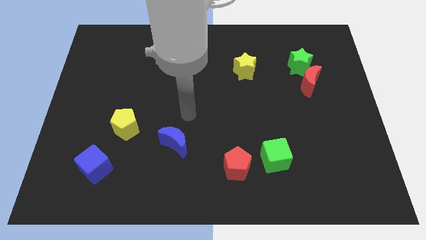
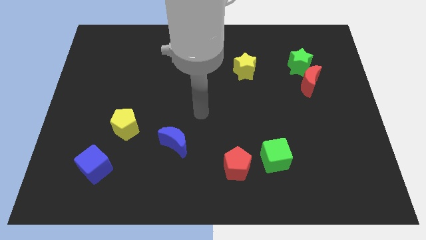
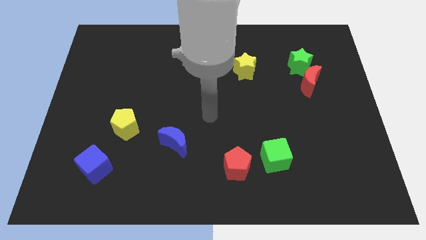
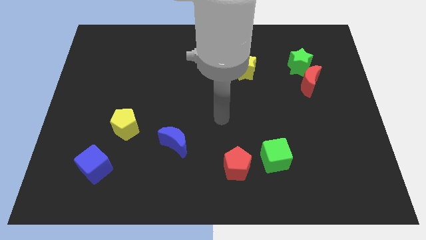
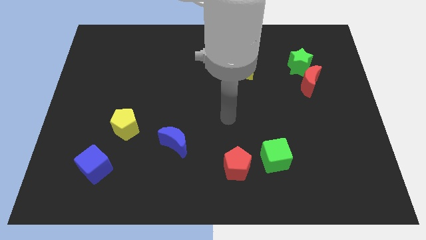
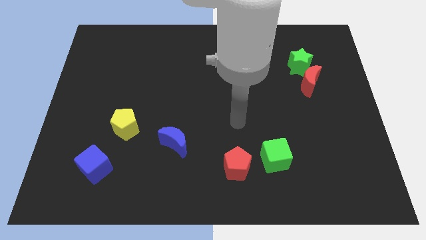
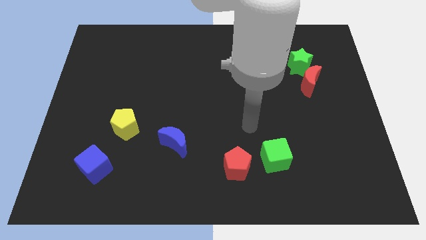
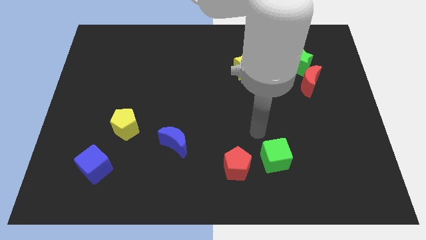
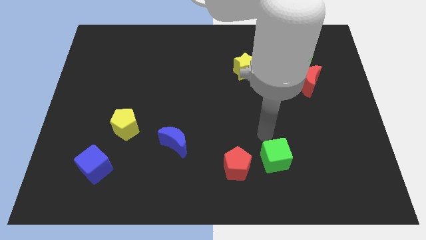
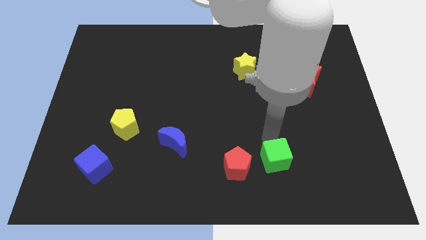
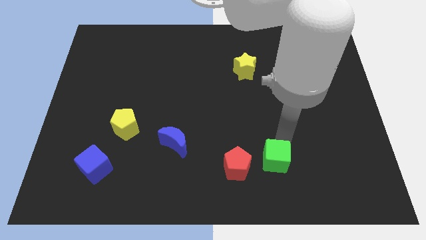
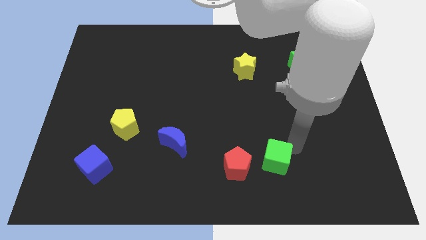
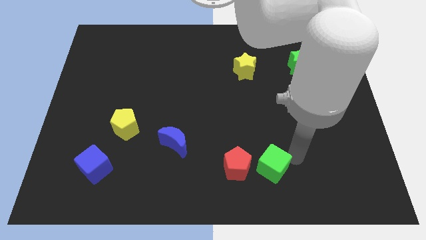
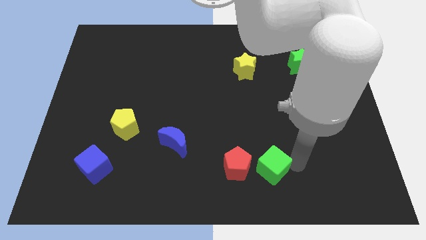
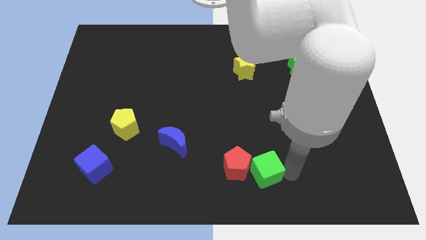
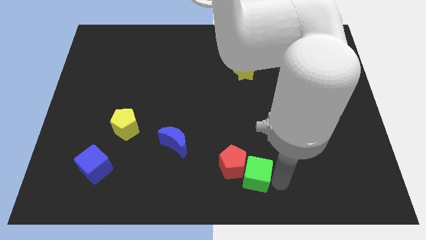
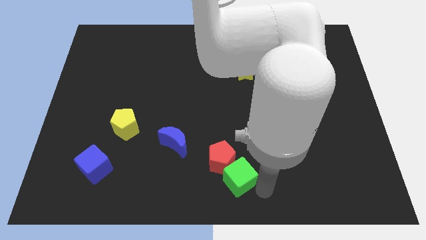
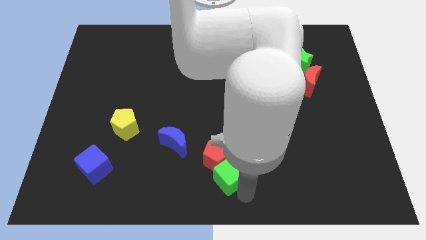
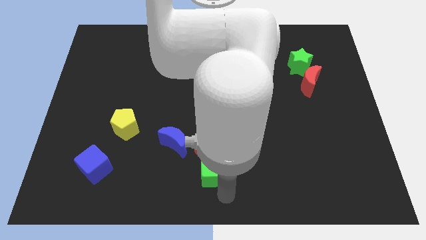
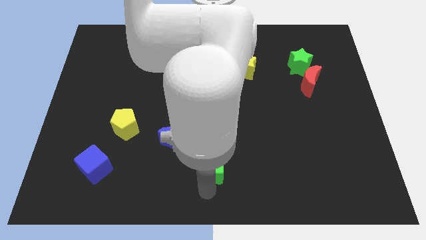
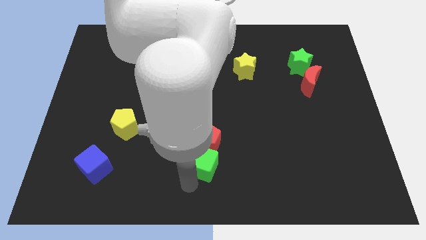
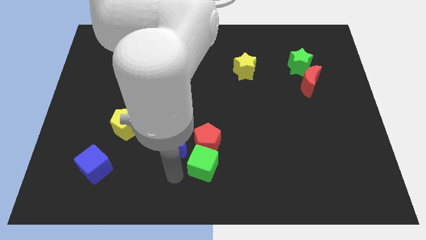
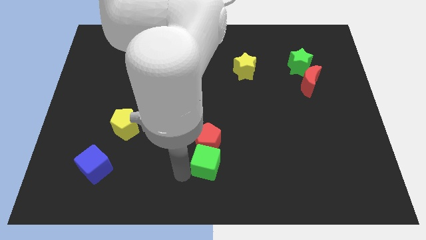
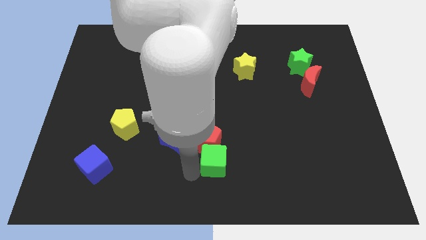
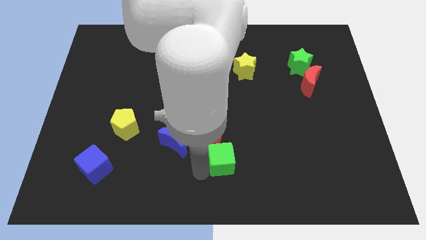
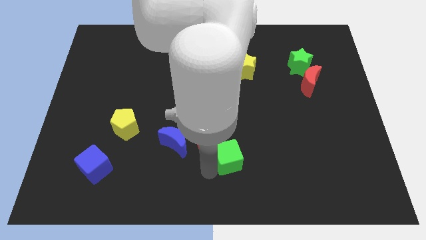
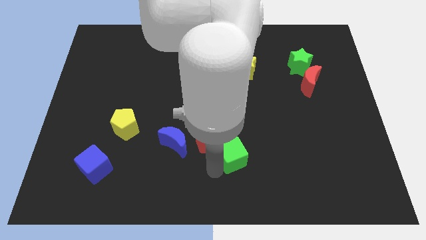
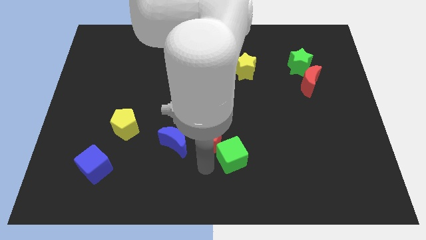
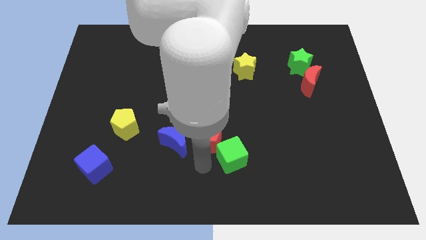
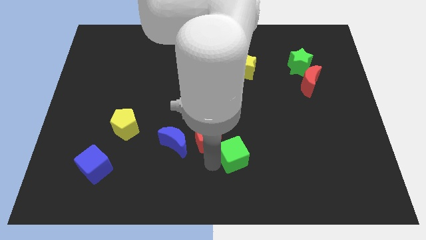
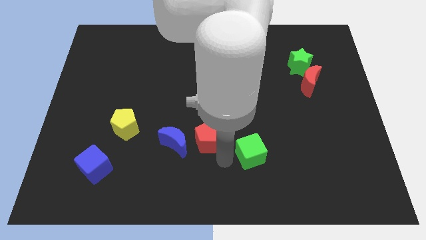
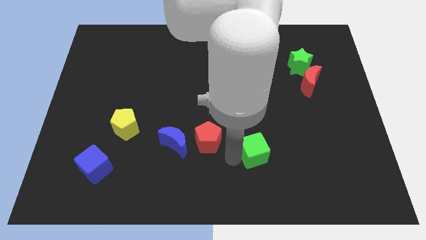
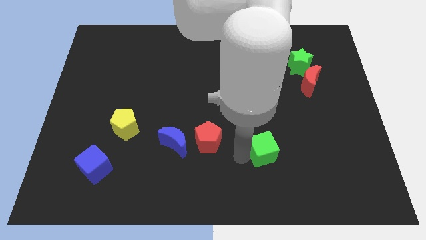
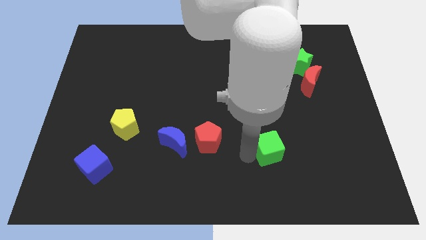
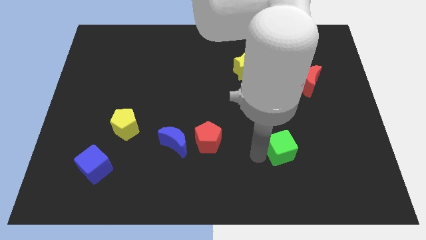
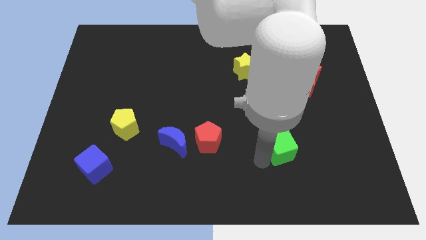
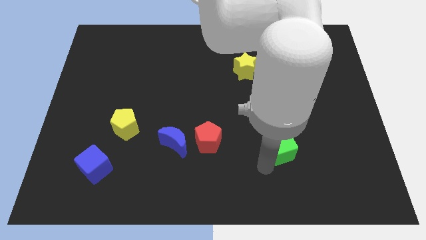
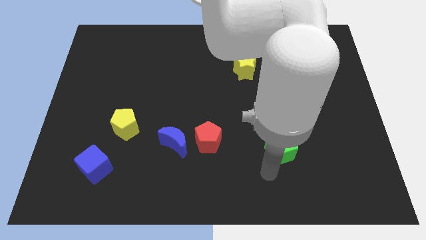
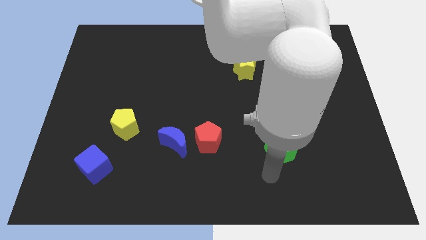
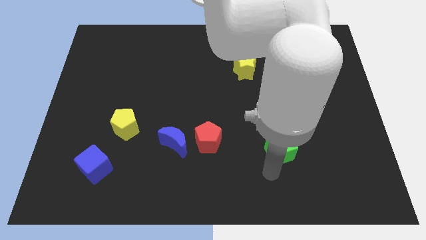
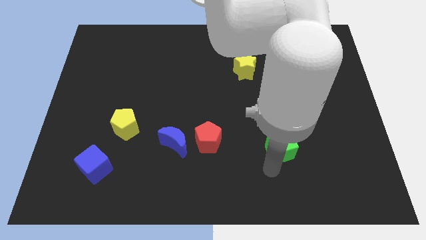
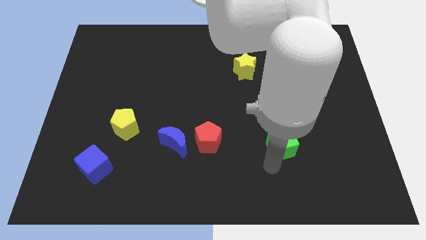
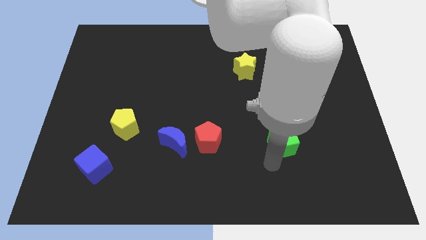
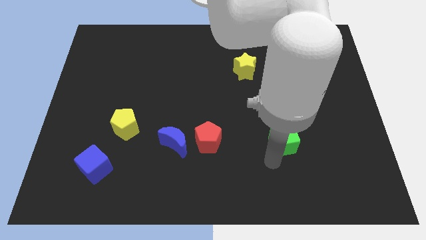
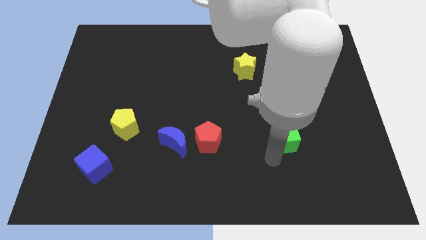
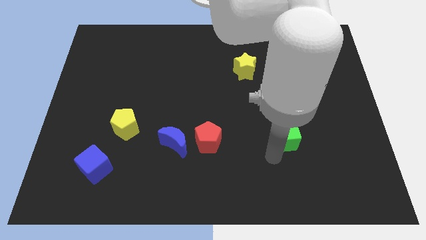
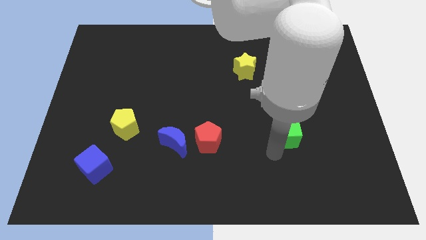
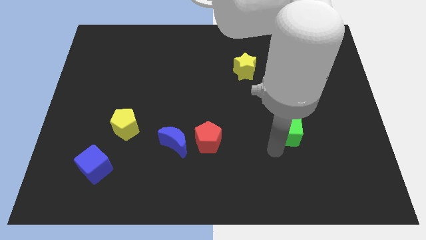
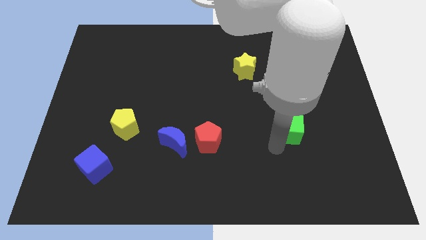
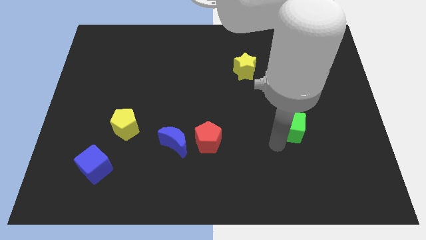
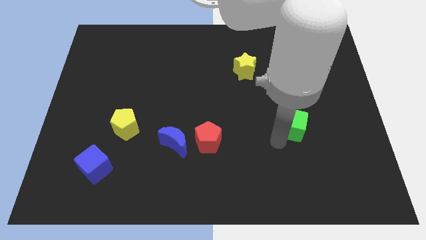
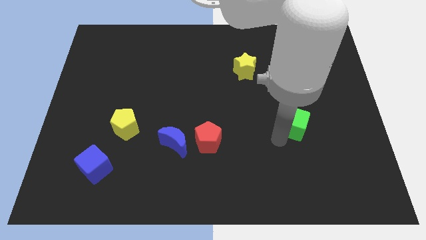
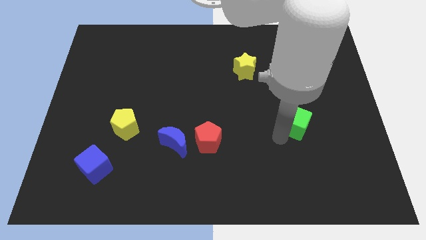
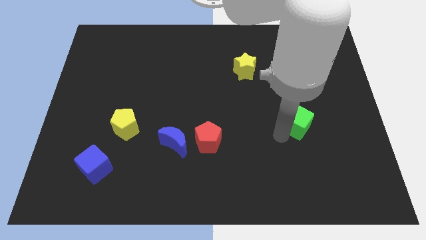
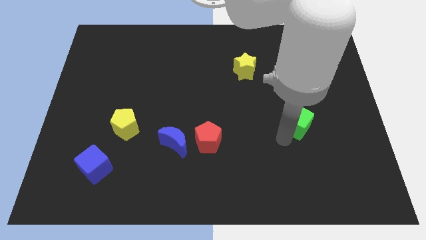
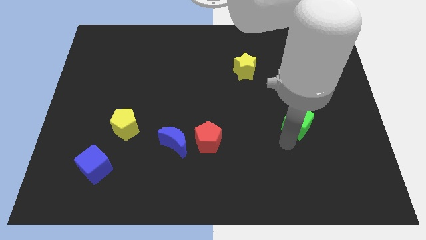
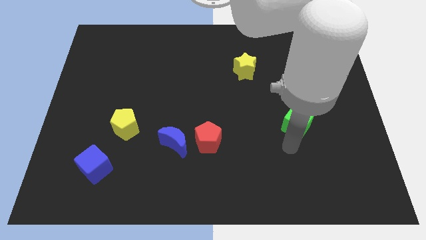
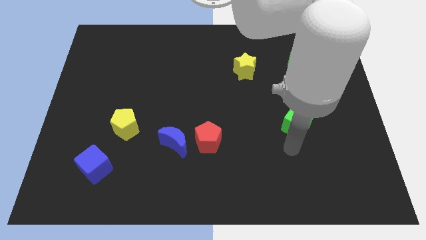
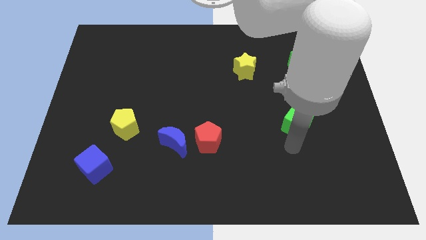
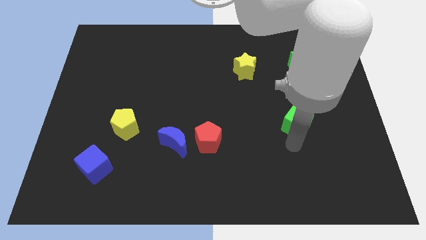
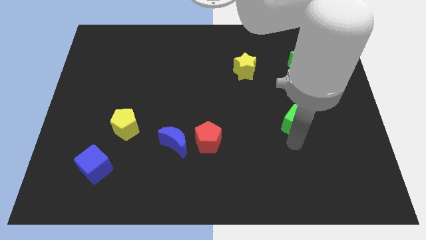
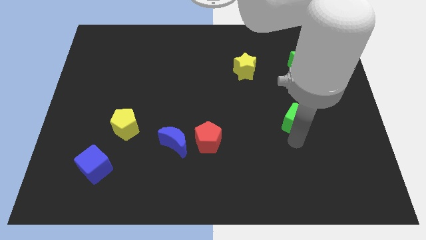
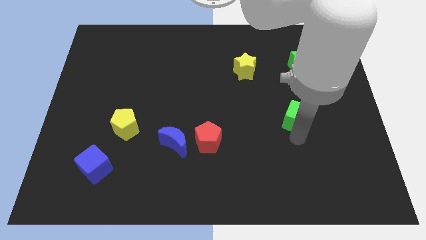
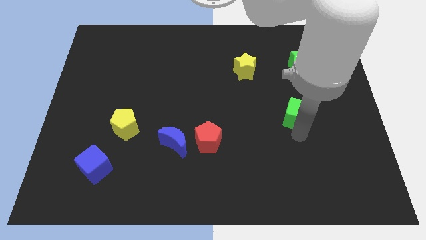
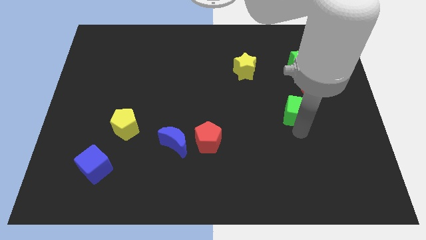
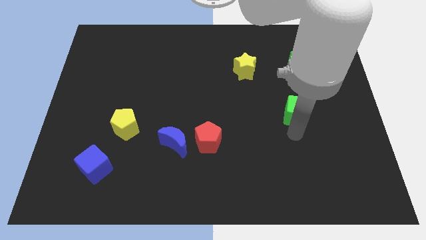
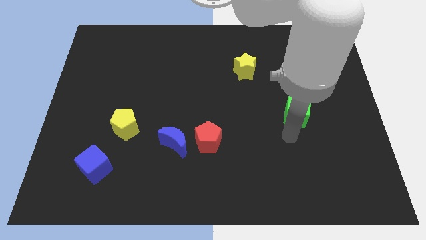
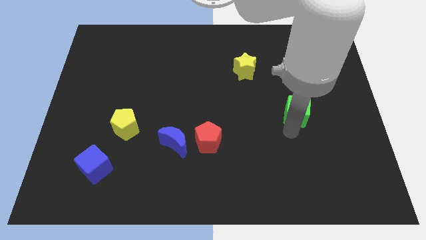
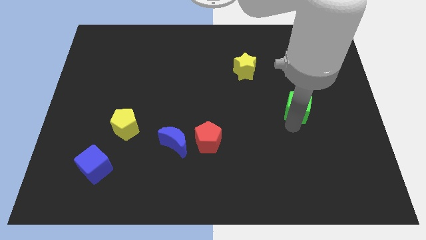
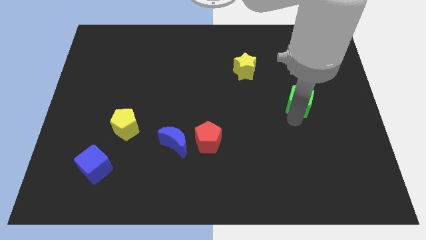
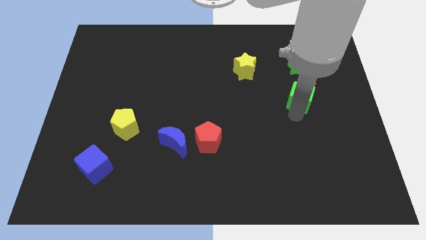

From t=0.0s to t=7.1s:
slide the green cube next to the red moon

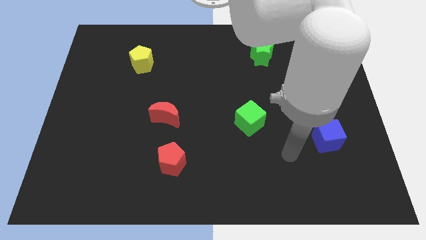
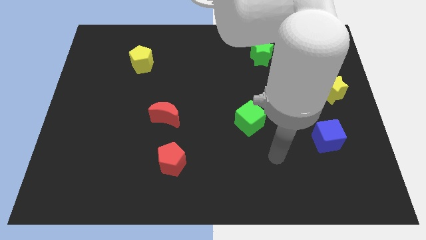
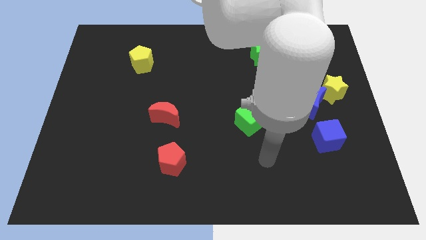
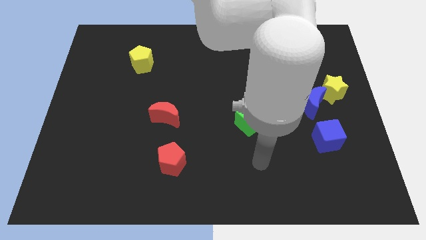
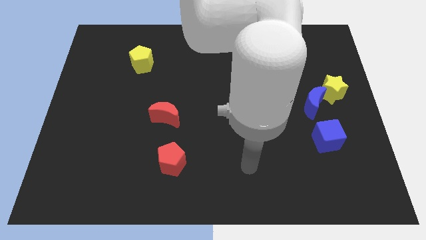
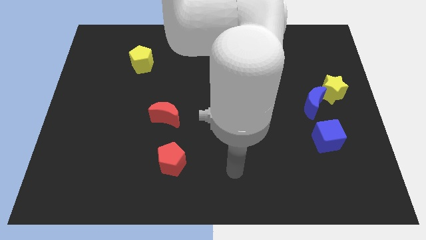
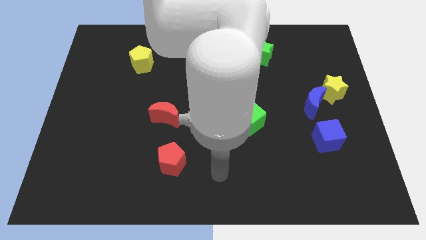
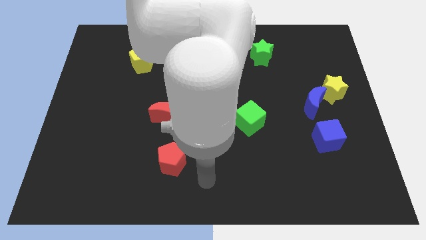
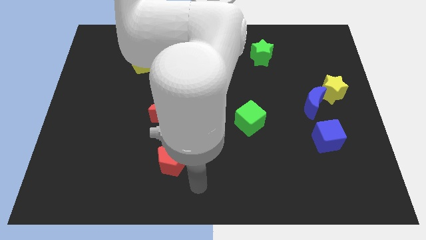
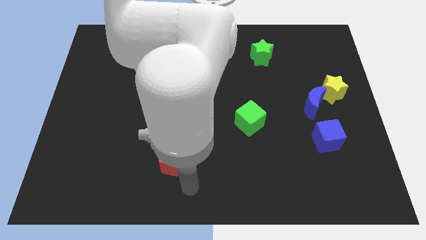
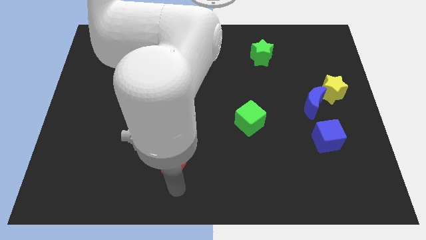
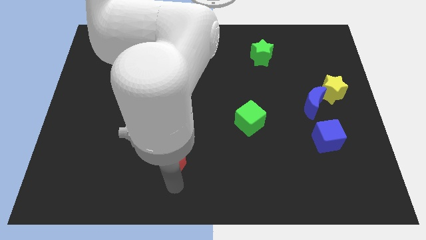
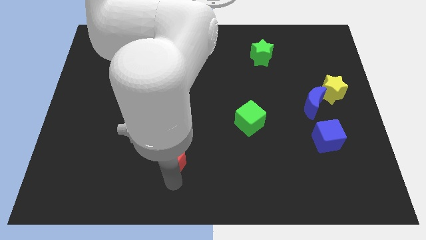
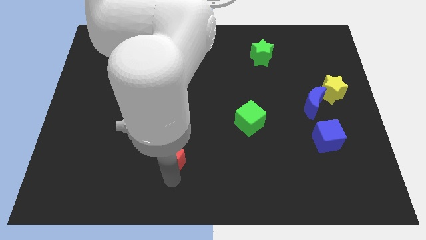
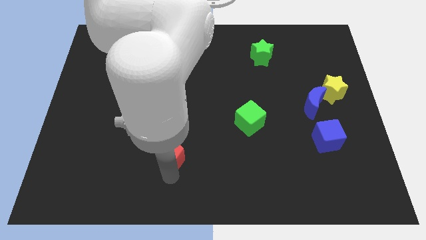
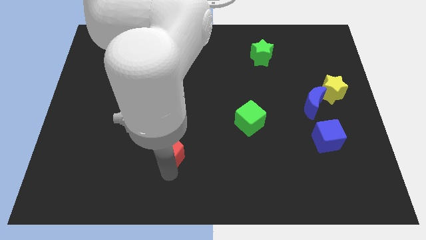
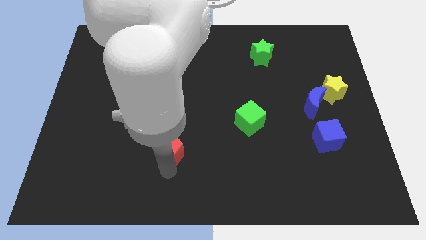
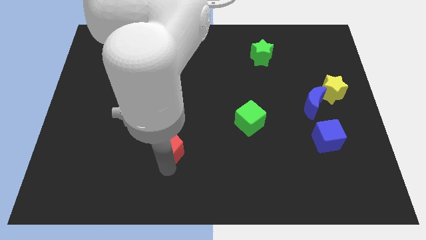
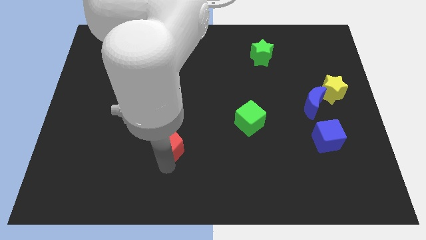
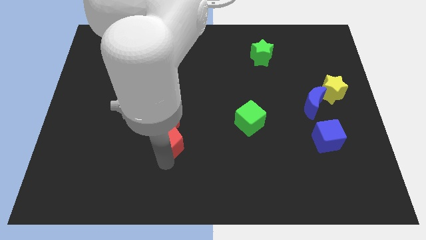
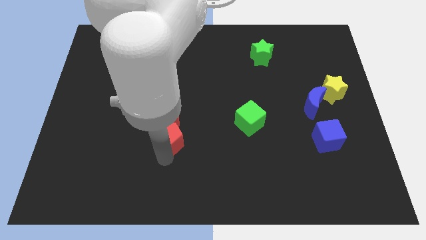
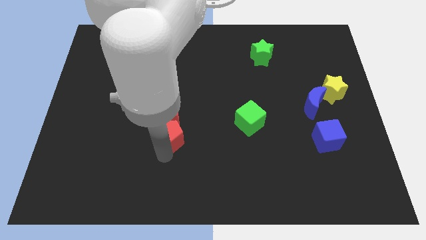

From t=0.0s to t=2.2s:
push the red pentagon to the red moon
